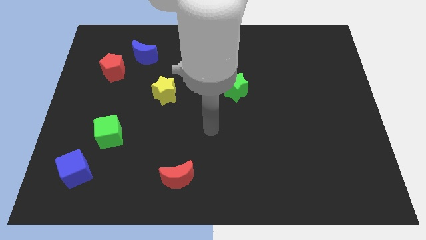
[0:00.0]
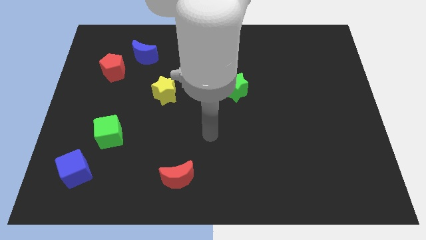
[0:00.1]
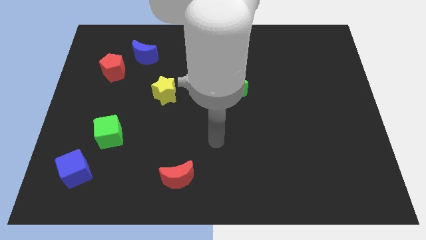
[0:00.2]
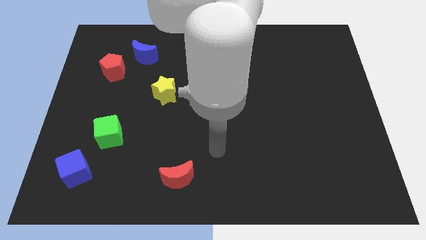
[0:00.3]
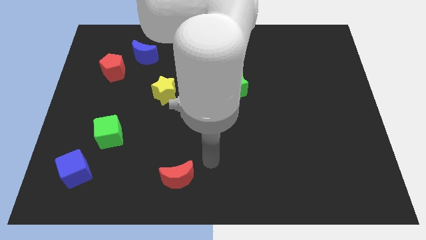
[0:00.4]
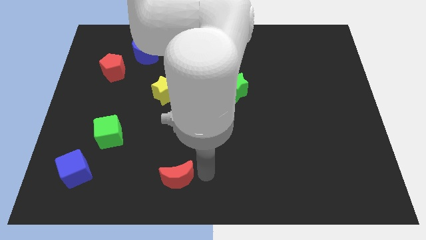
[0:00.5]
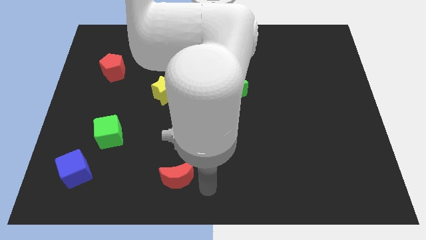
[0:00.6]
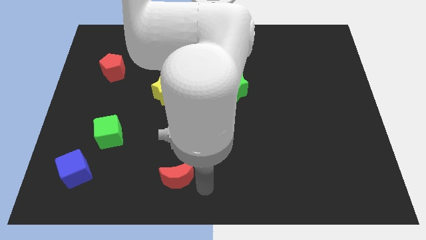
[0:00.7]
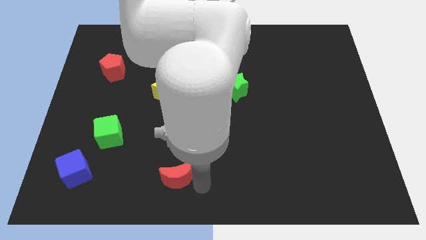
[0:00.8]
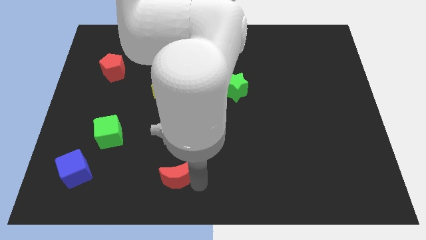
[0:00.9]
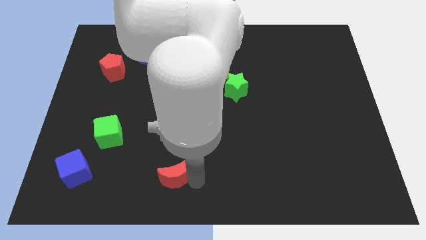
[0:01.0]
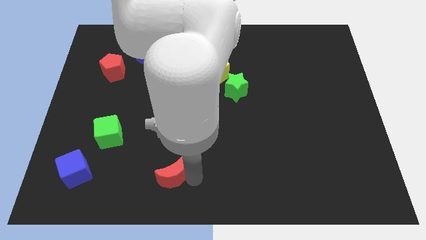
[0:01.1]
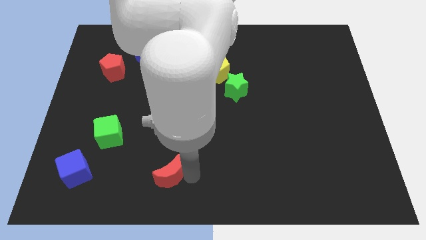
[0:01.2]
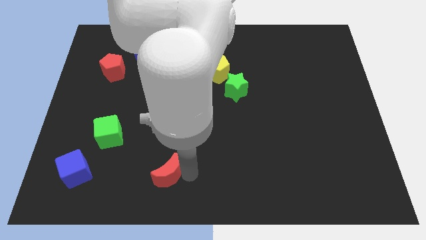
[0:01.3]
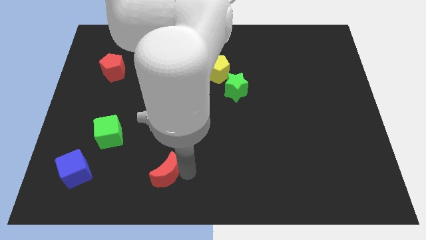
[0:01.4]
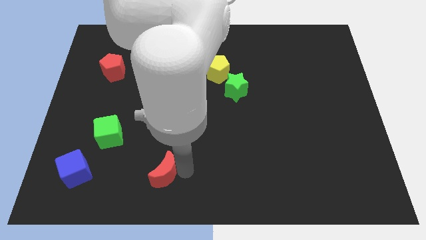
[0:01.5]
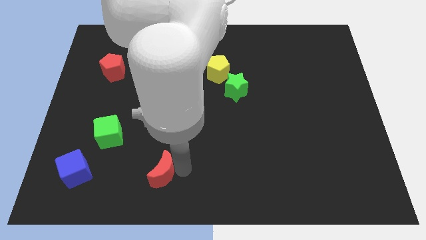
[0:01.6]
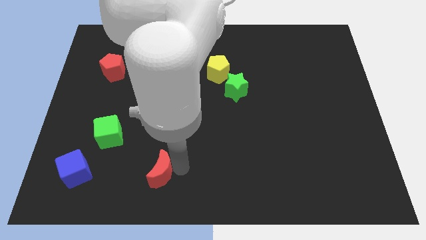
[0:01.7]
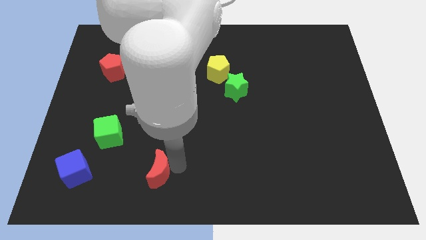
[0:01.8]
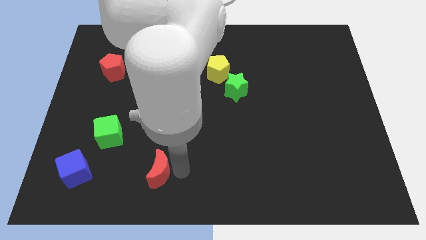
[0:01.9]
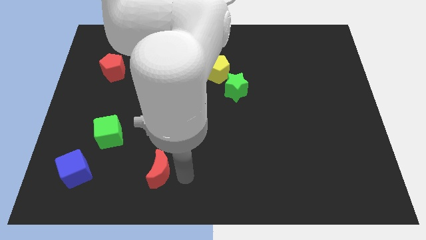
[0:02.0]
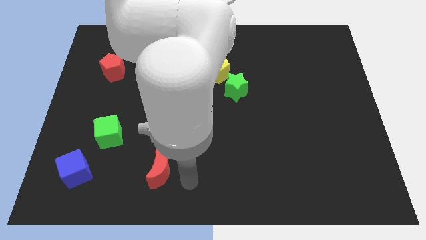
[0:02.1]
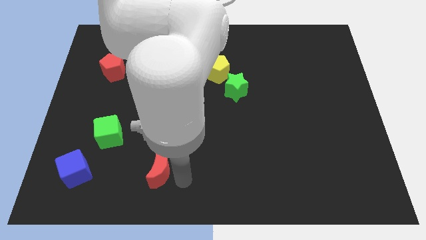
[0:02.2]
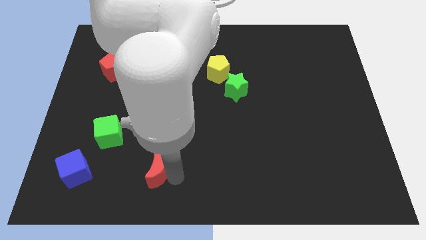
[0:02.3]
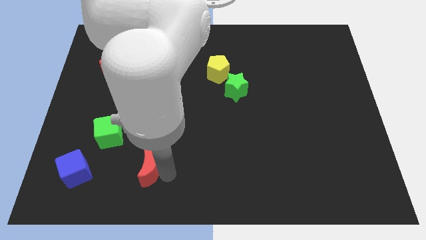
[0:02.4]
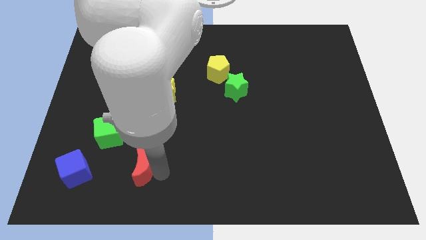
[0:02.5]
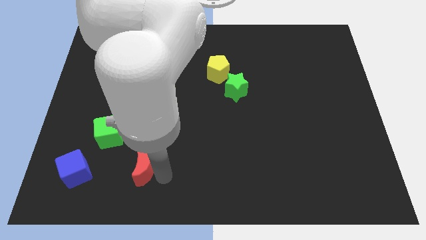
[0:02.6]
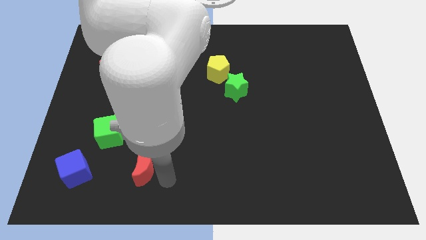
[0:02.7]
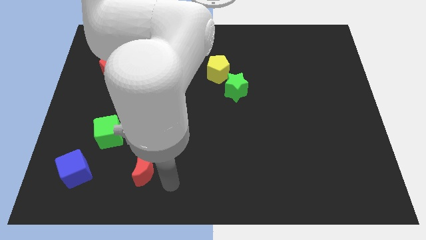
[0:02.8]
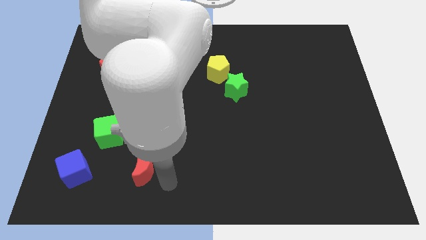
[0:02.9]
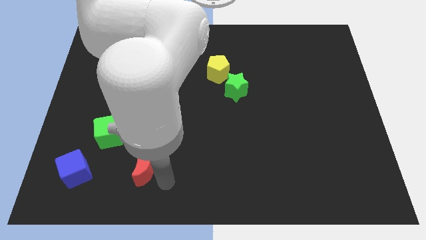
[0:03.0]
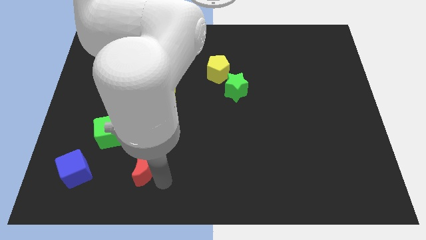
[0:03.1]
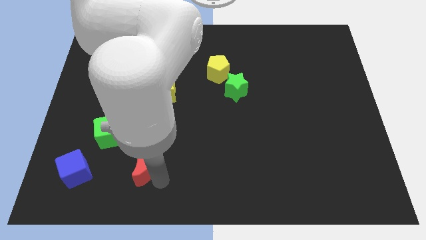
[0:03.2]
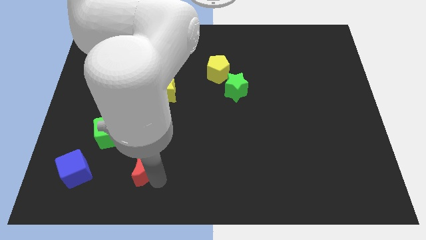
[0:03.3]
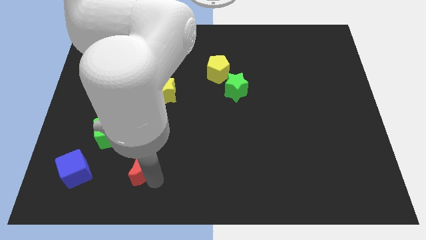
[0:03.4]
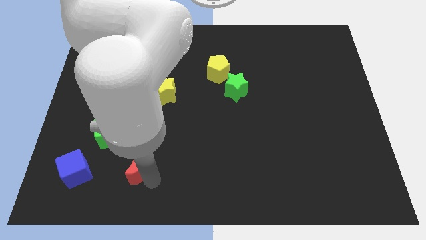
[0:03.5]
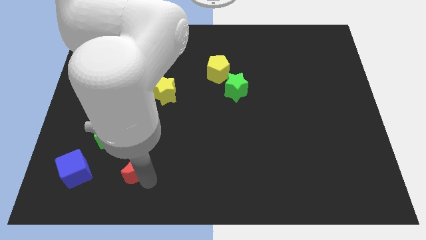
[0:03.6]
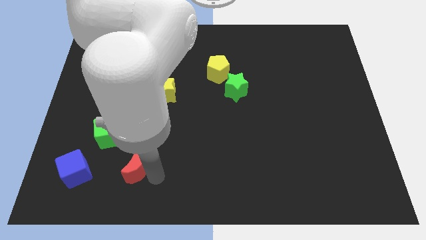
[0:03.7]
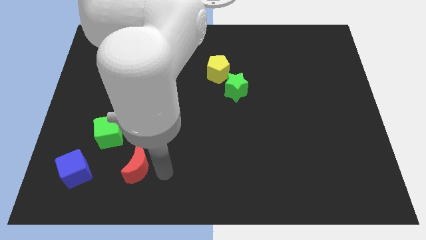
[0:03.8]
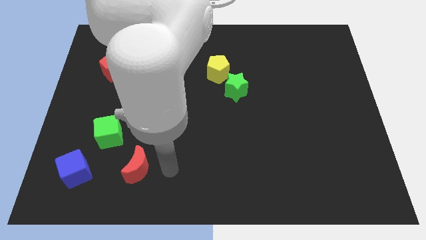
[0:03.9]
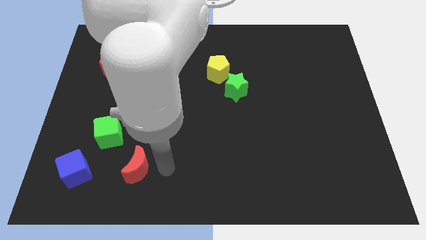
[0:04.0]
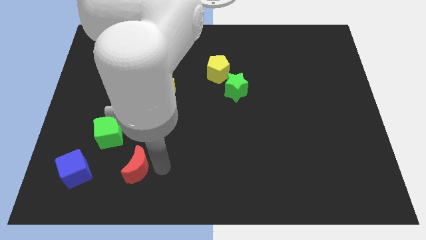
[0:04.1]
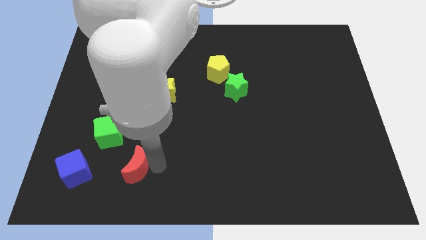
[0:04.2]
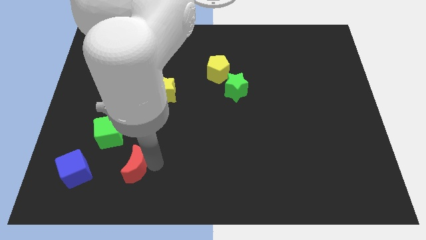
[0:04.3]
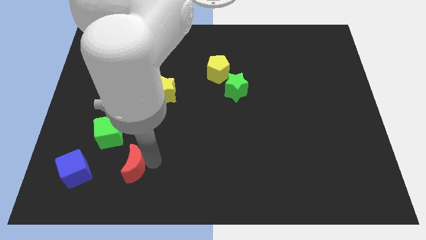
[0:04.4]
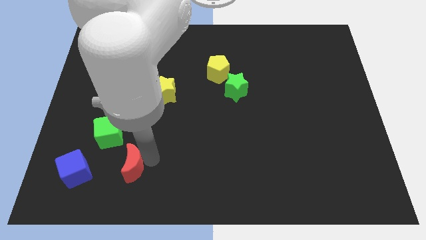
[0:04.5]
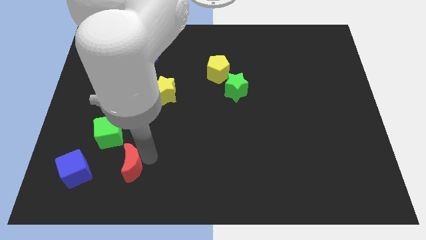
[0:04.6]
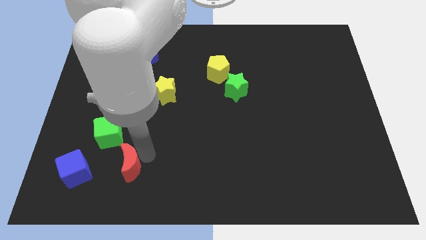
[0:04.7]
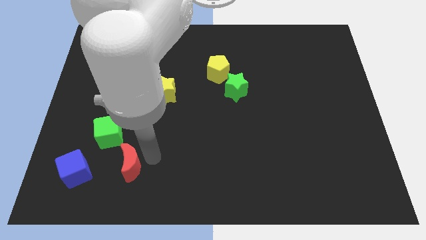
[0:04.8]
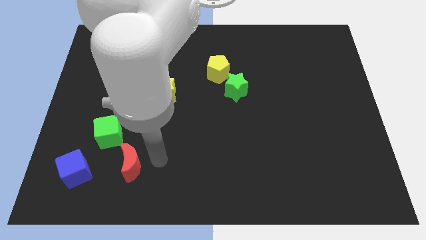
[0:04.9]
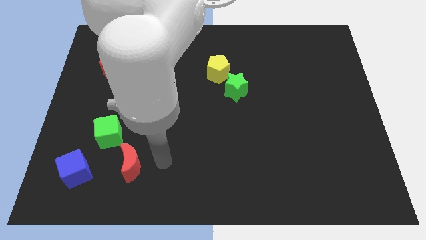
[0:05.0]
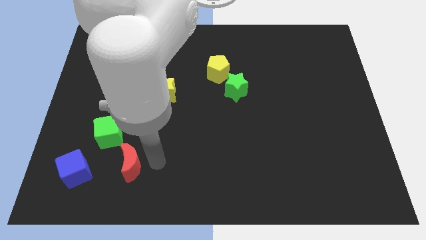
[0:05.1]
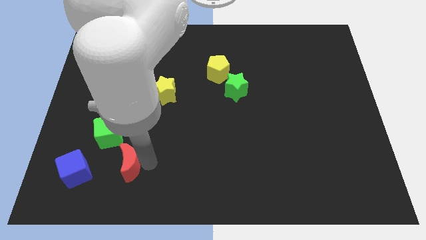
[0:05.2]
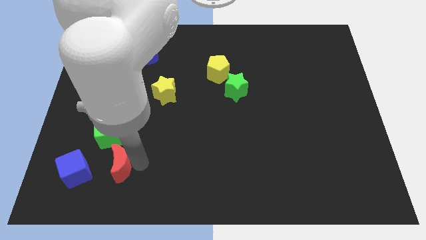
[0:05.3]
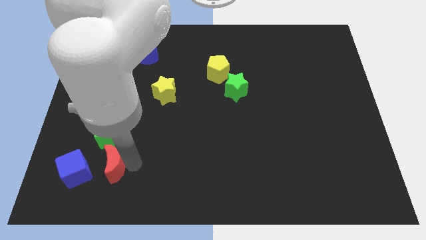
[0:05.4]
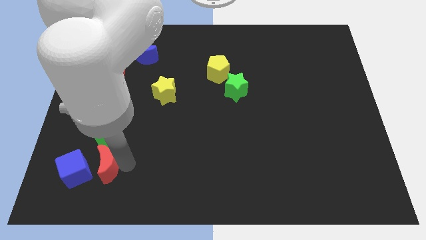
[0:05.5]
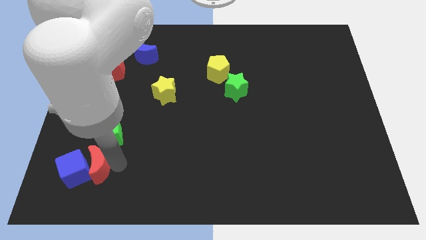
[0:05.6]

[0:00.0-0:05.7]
move the red moon next to the blue cube
